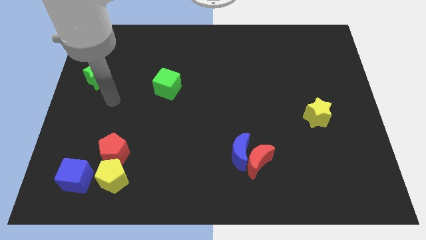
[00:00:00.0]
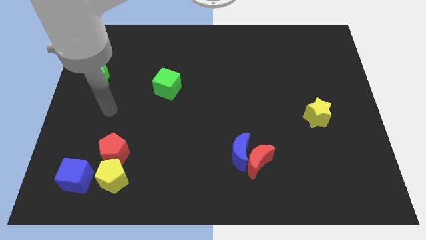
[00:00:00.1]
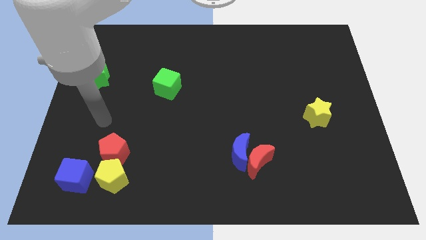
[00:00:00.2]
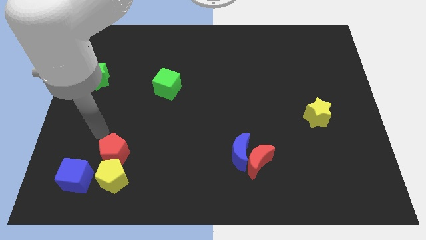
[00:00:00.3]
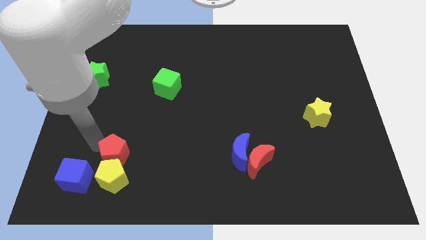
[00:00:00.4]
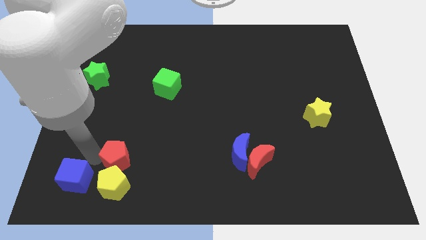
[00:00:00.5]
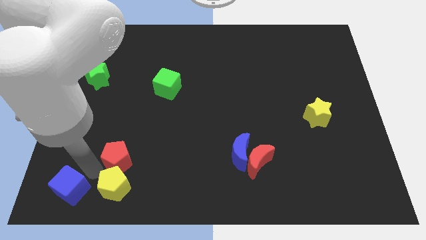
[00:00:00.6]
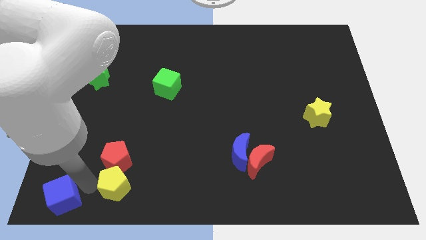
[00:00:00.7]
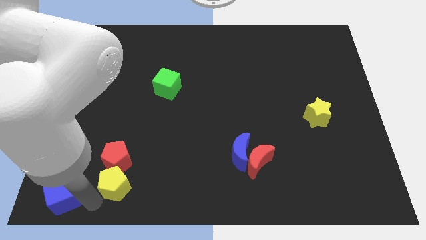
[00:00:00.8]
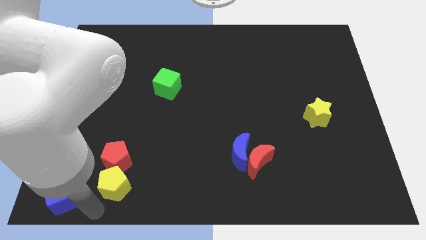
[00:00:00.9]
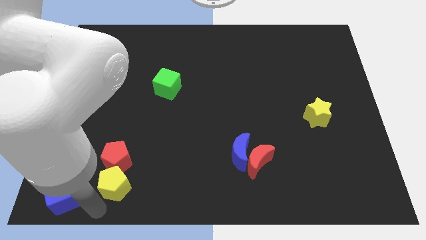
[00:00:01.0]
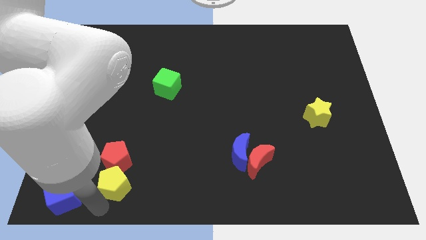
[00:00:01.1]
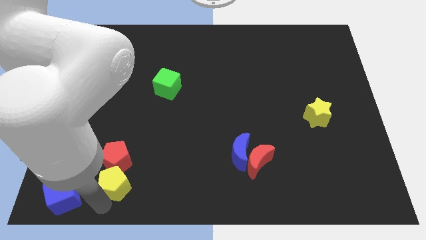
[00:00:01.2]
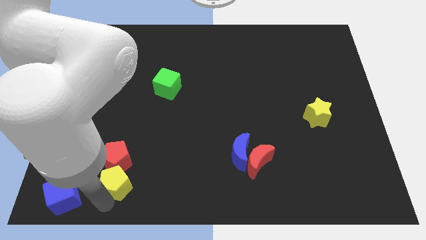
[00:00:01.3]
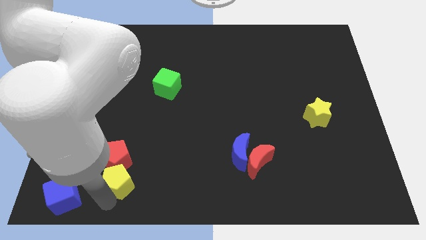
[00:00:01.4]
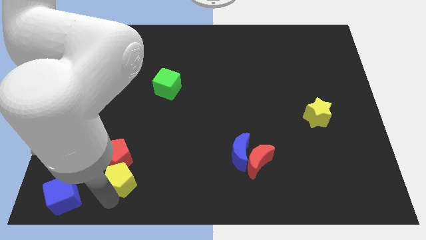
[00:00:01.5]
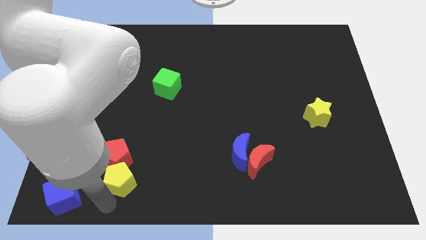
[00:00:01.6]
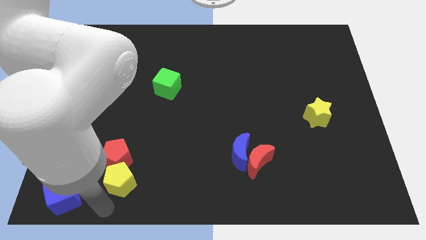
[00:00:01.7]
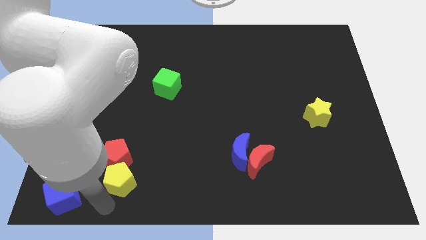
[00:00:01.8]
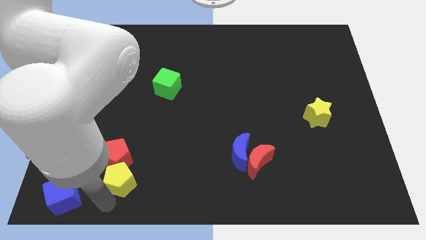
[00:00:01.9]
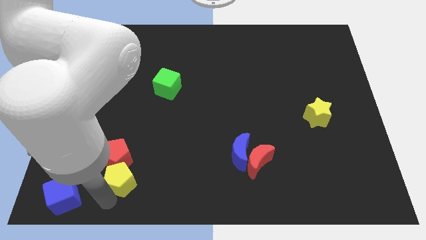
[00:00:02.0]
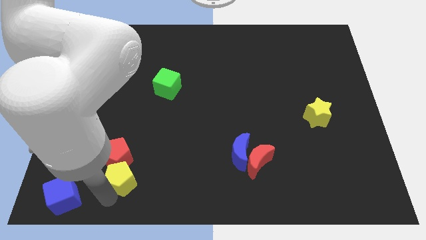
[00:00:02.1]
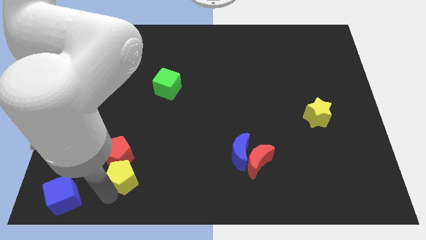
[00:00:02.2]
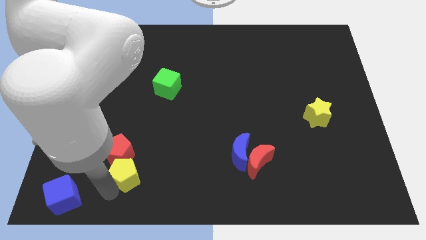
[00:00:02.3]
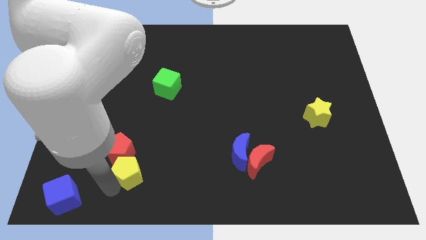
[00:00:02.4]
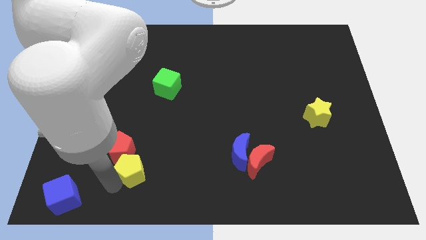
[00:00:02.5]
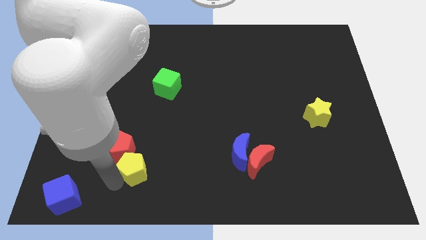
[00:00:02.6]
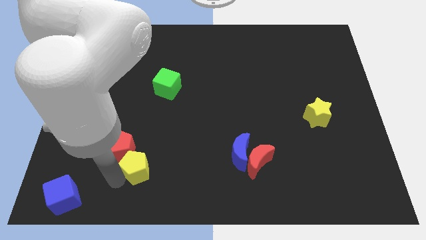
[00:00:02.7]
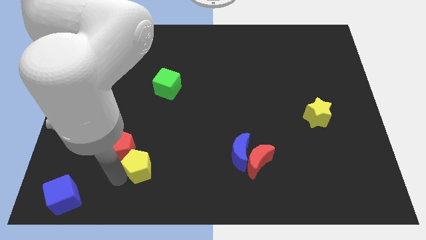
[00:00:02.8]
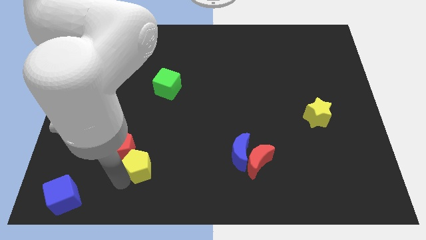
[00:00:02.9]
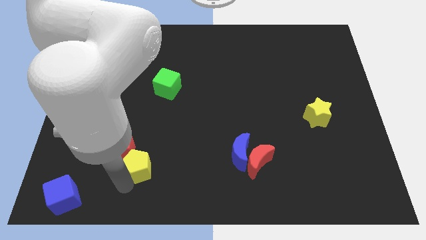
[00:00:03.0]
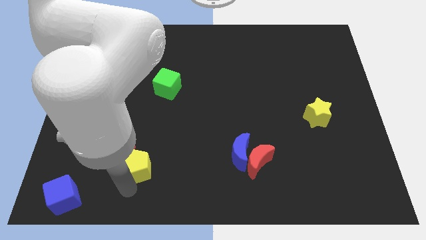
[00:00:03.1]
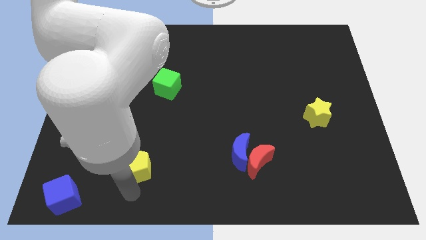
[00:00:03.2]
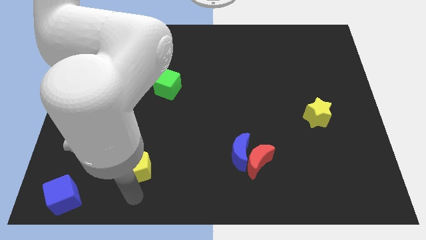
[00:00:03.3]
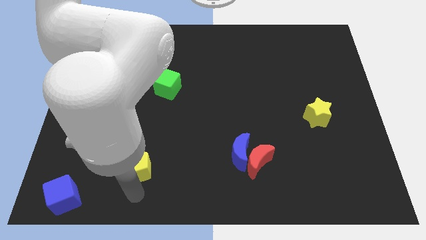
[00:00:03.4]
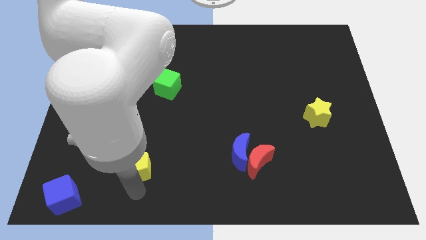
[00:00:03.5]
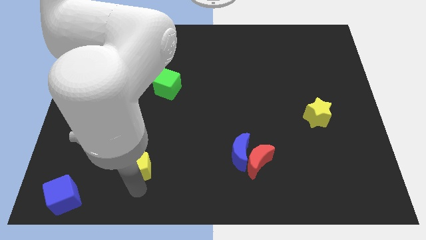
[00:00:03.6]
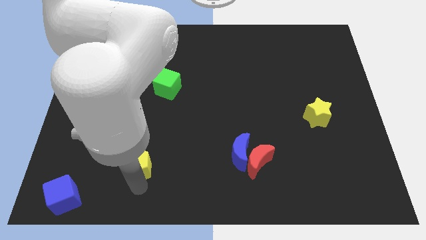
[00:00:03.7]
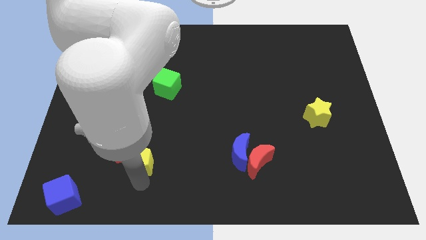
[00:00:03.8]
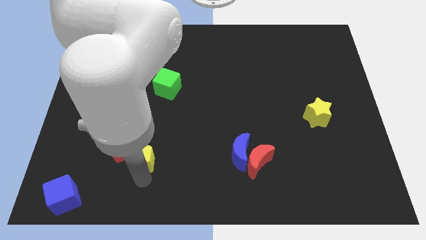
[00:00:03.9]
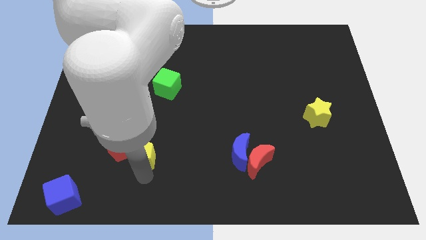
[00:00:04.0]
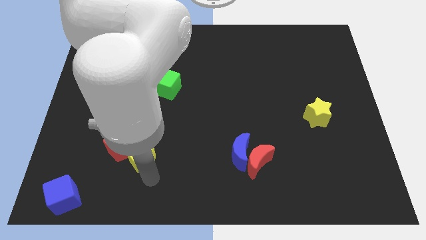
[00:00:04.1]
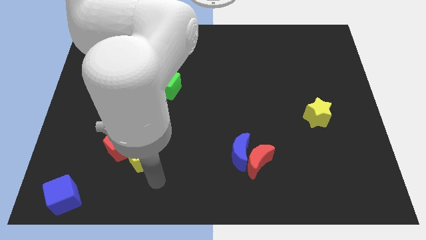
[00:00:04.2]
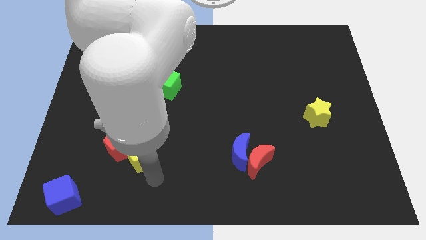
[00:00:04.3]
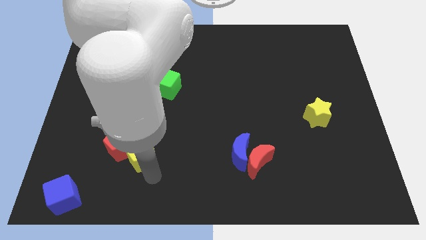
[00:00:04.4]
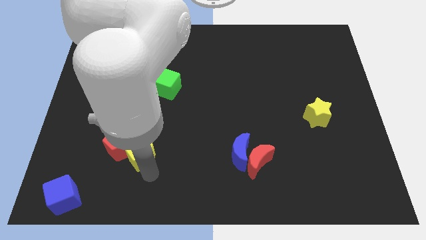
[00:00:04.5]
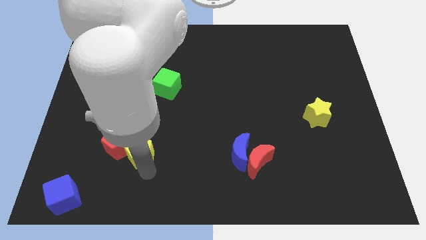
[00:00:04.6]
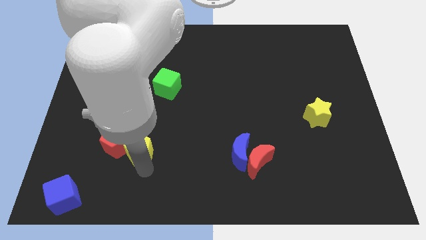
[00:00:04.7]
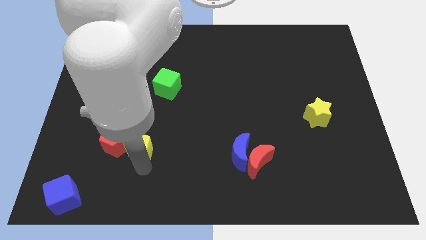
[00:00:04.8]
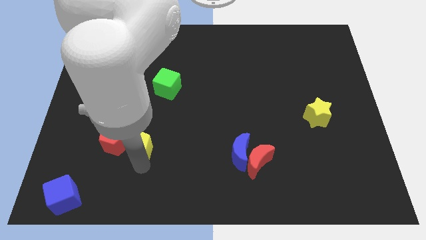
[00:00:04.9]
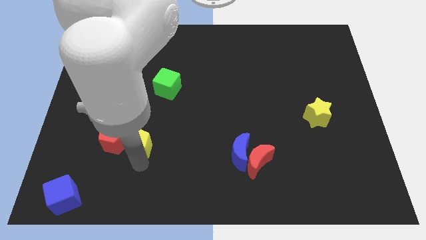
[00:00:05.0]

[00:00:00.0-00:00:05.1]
push the yellow pentagon up a little bit

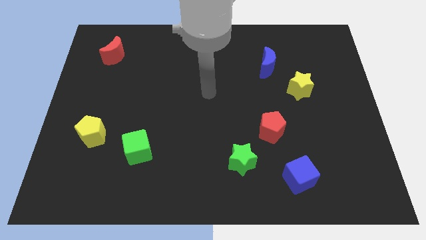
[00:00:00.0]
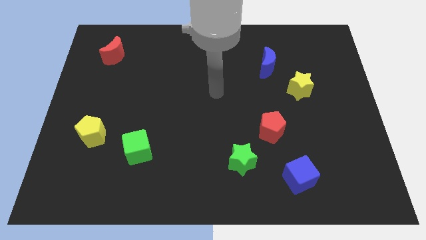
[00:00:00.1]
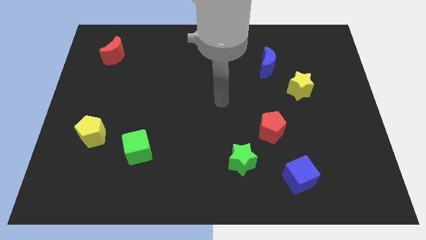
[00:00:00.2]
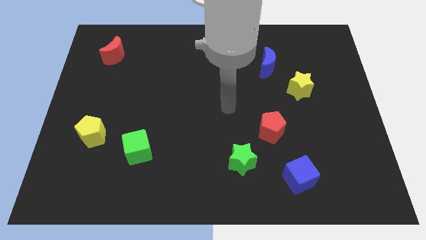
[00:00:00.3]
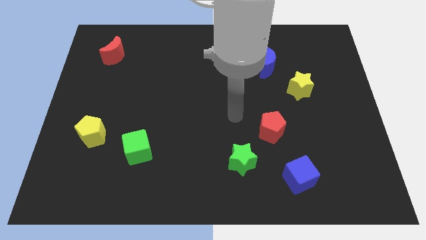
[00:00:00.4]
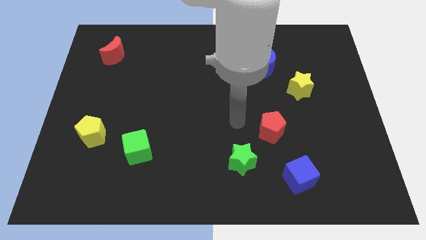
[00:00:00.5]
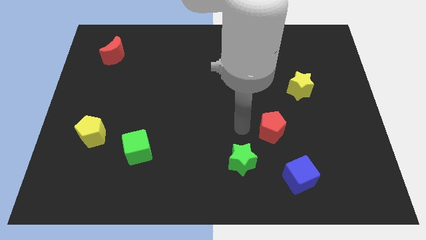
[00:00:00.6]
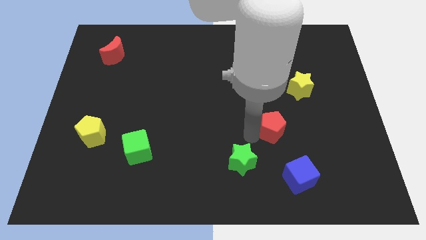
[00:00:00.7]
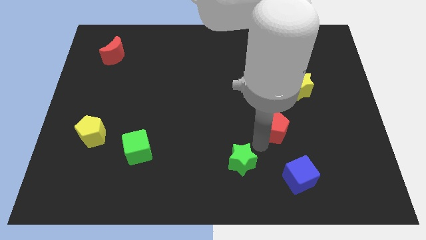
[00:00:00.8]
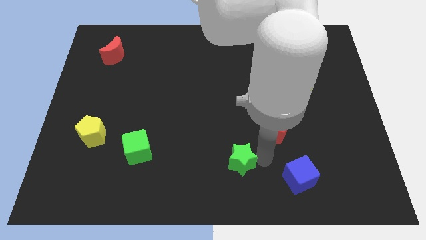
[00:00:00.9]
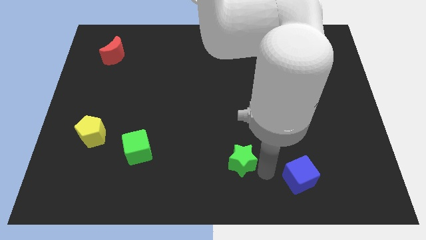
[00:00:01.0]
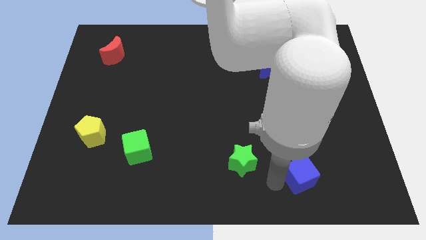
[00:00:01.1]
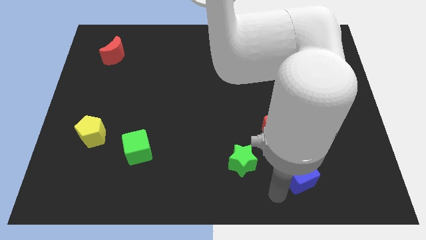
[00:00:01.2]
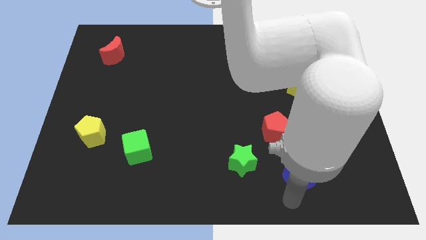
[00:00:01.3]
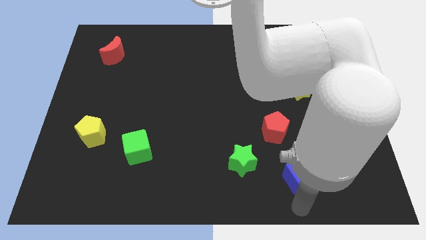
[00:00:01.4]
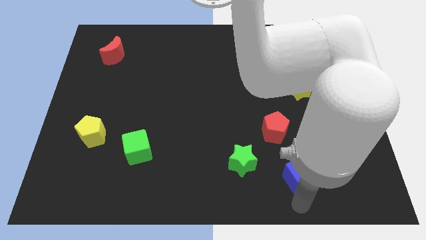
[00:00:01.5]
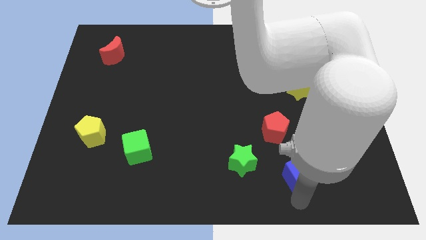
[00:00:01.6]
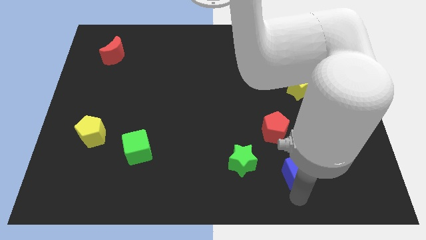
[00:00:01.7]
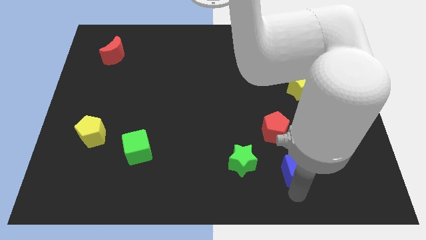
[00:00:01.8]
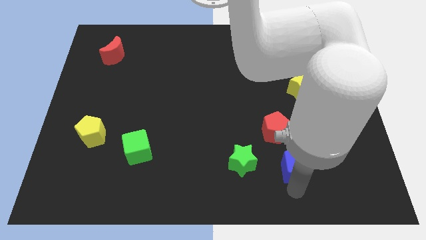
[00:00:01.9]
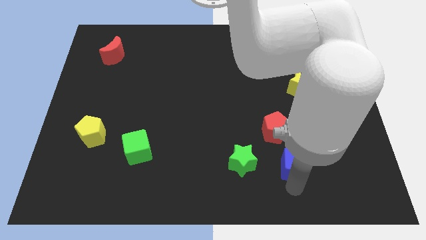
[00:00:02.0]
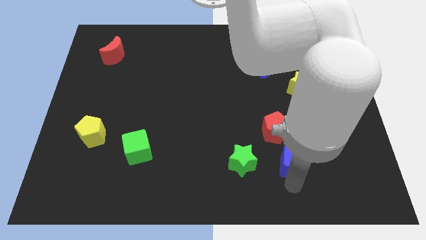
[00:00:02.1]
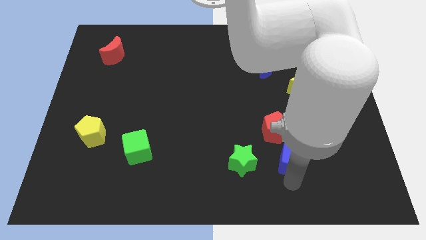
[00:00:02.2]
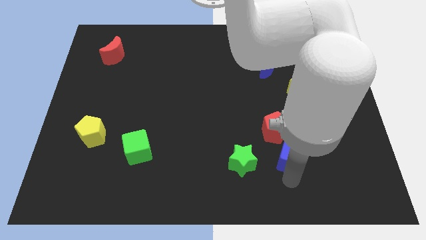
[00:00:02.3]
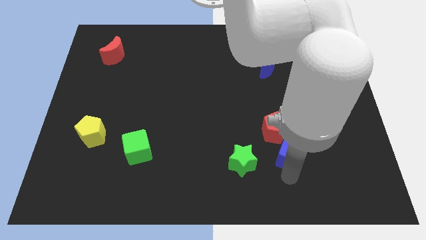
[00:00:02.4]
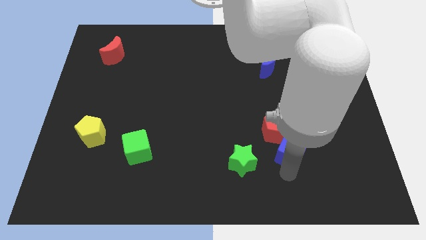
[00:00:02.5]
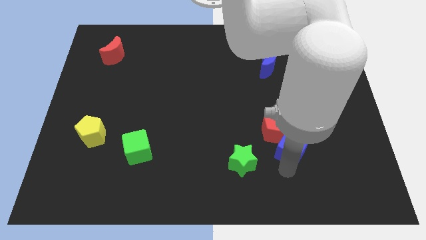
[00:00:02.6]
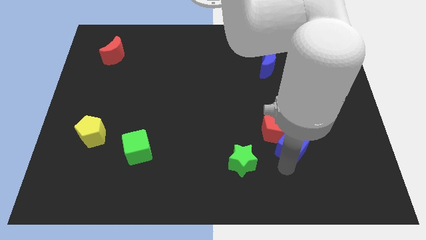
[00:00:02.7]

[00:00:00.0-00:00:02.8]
move the blue cube upwards slightly

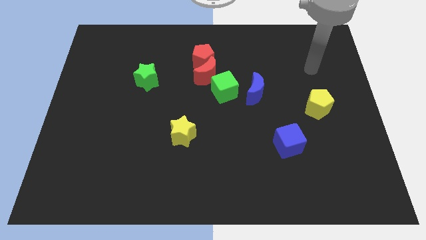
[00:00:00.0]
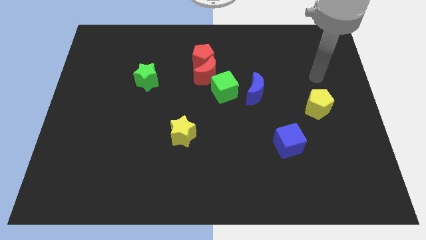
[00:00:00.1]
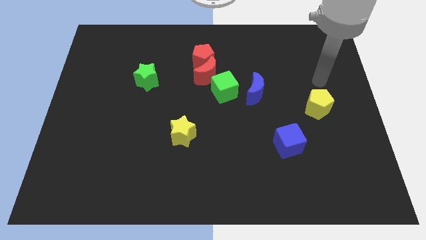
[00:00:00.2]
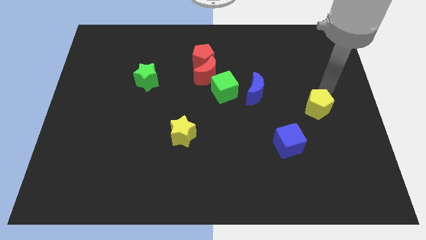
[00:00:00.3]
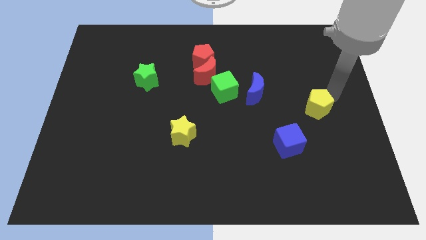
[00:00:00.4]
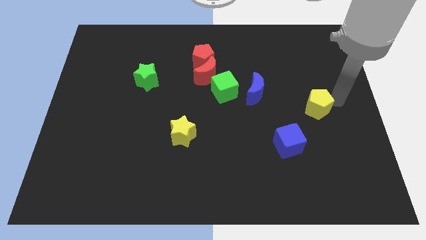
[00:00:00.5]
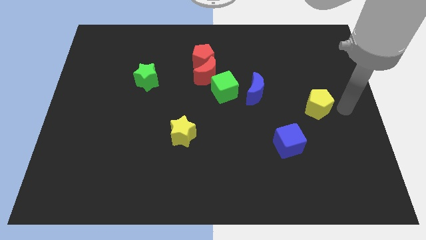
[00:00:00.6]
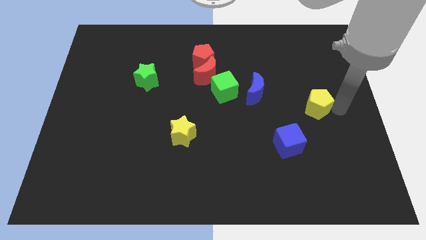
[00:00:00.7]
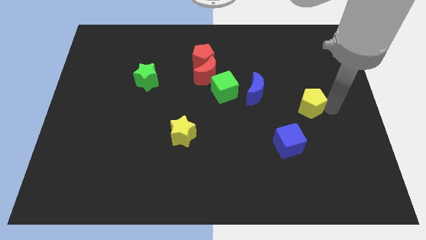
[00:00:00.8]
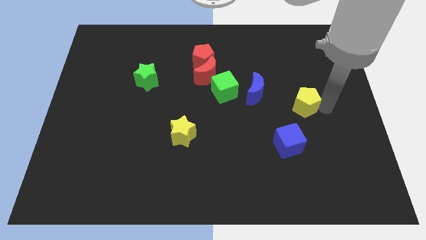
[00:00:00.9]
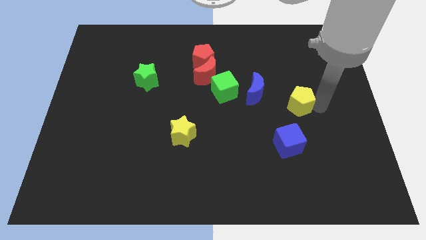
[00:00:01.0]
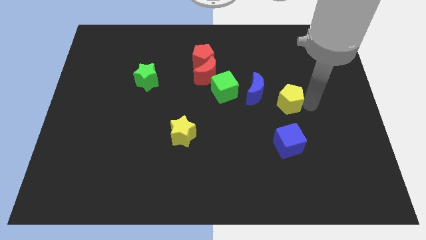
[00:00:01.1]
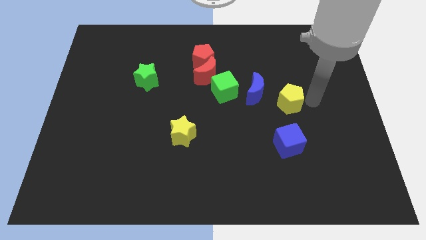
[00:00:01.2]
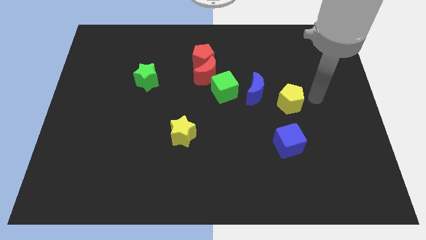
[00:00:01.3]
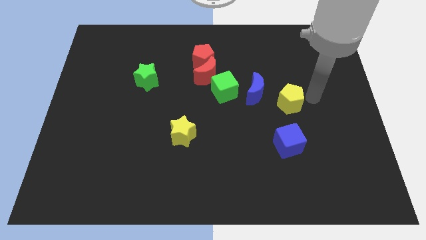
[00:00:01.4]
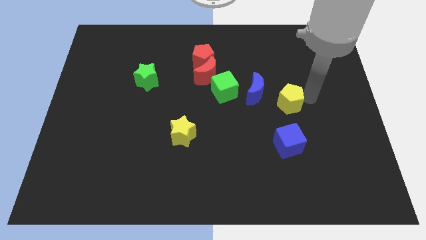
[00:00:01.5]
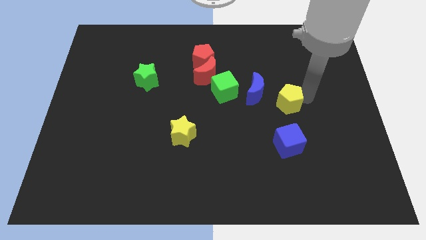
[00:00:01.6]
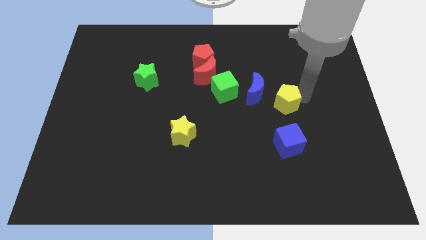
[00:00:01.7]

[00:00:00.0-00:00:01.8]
move the yellow pentagon a little bit left
